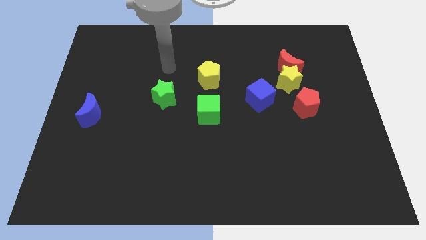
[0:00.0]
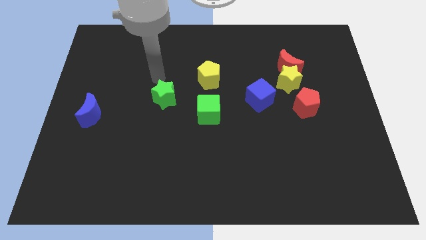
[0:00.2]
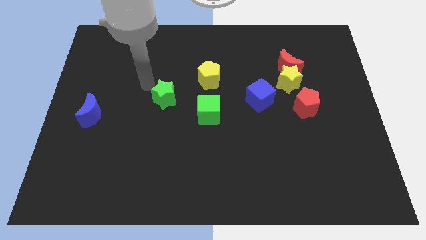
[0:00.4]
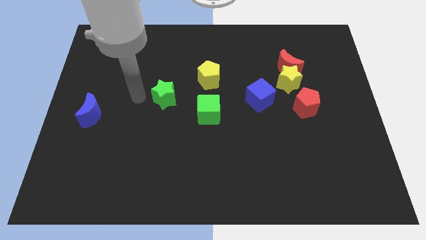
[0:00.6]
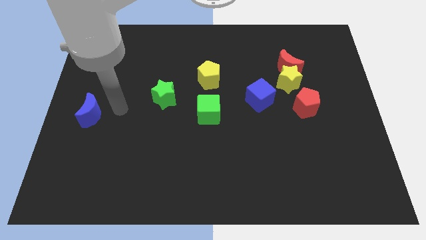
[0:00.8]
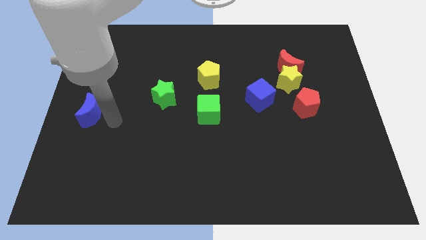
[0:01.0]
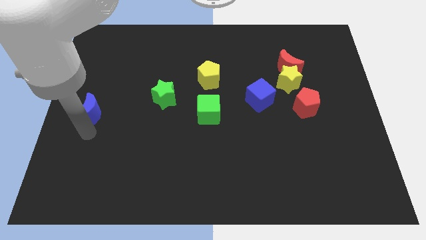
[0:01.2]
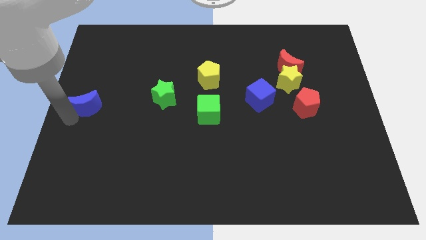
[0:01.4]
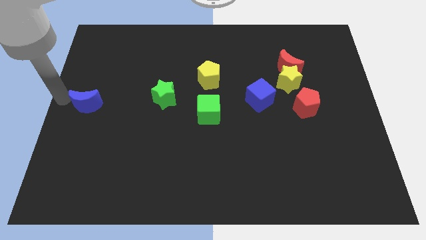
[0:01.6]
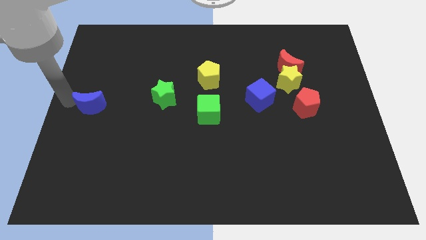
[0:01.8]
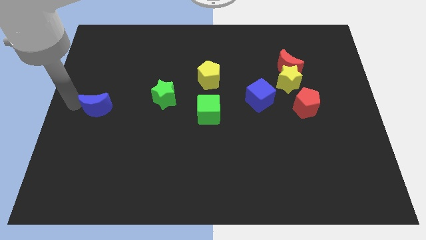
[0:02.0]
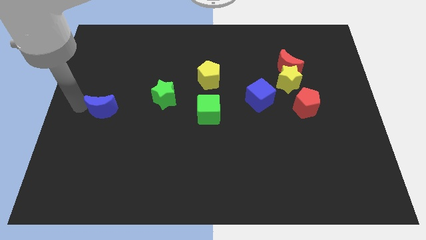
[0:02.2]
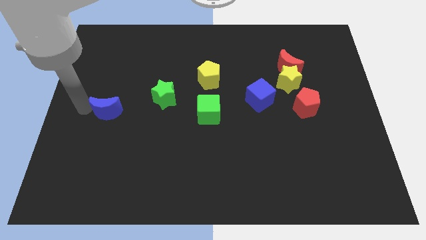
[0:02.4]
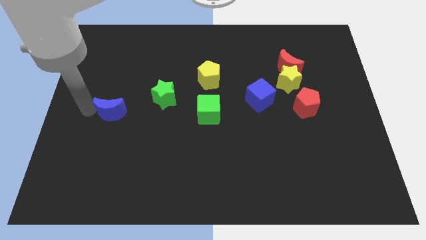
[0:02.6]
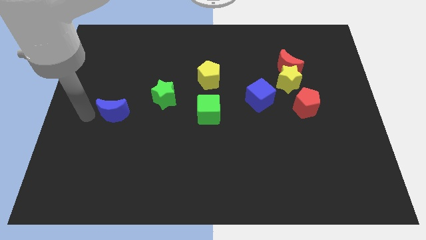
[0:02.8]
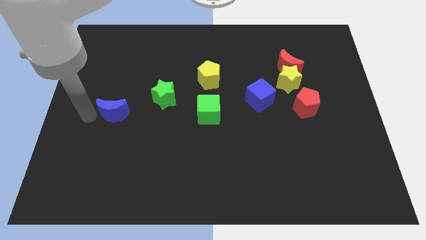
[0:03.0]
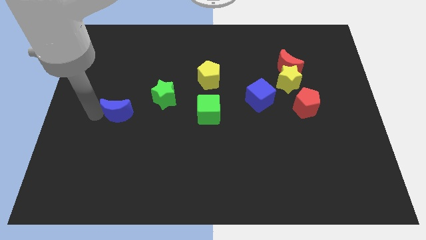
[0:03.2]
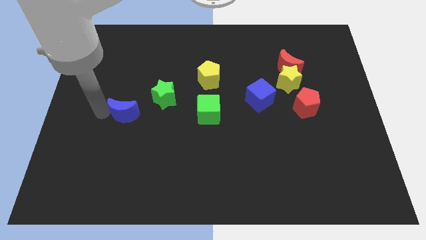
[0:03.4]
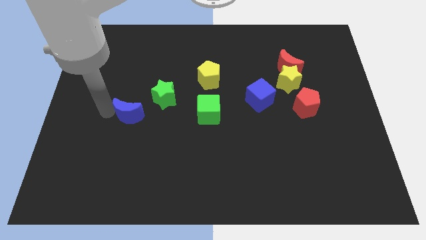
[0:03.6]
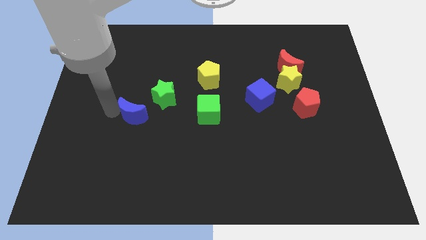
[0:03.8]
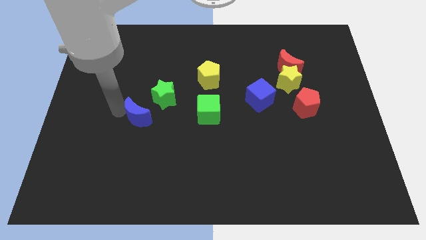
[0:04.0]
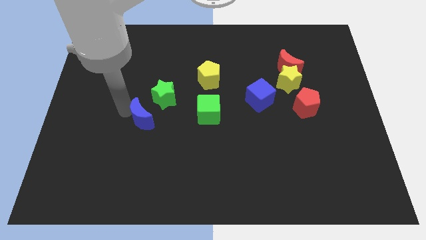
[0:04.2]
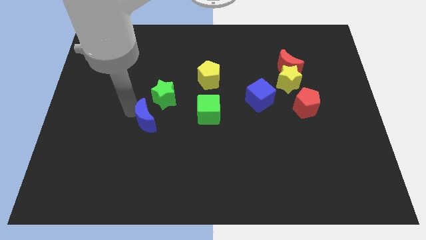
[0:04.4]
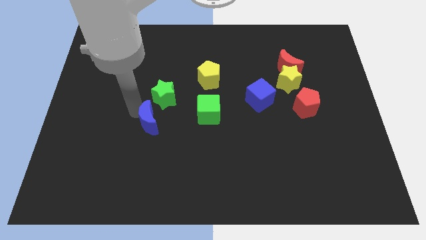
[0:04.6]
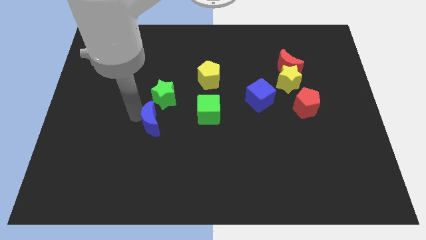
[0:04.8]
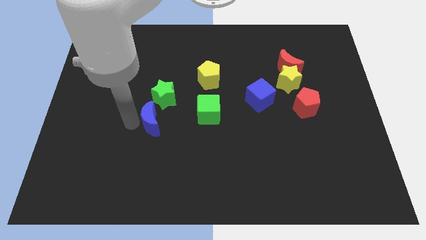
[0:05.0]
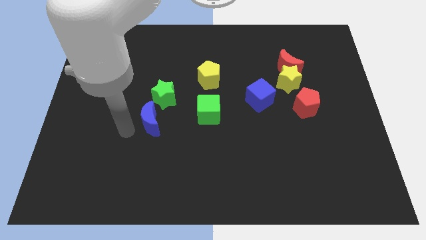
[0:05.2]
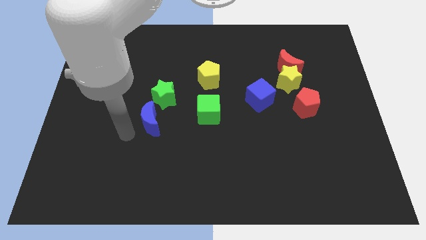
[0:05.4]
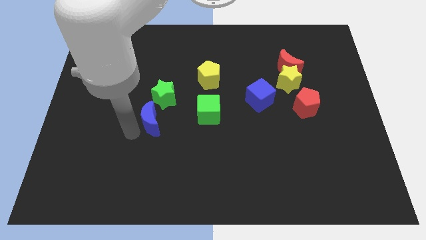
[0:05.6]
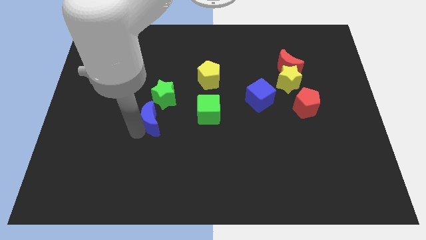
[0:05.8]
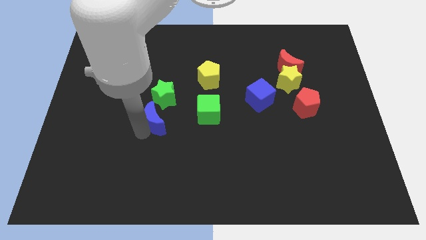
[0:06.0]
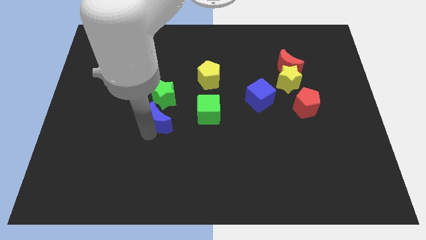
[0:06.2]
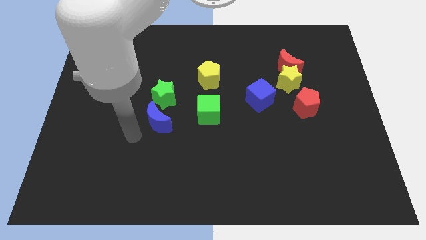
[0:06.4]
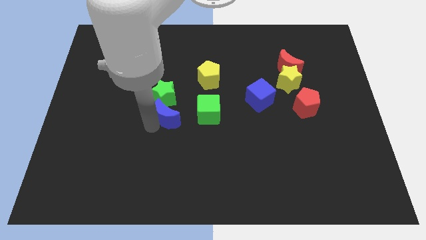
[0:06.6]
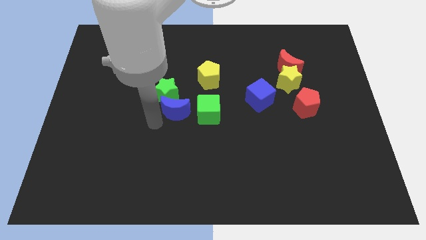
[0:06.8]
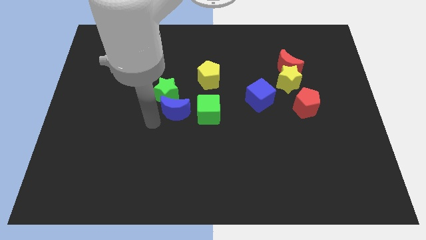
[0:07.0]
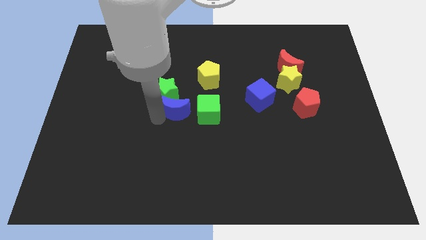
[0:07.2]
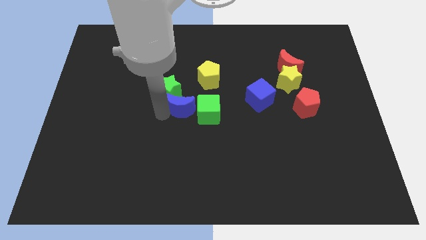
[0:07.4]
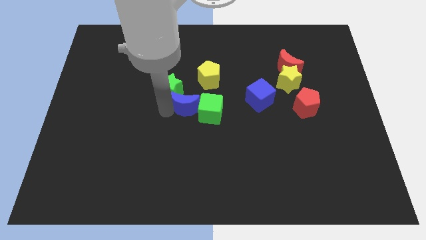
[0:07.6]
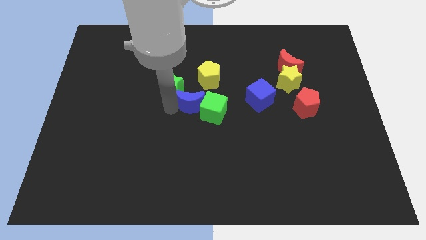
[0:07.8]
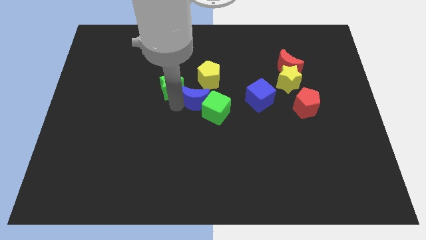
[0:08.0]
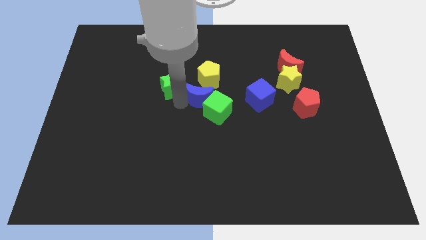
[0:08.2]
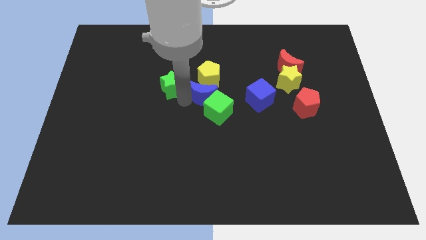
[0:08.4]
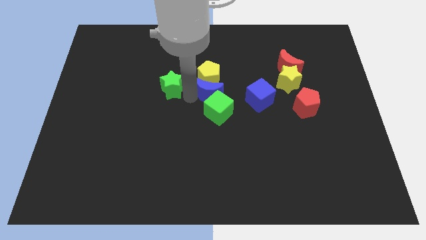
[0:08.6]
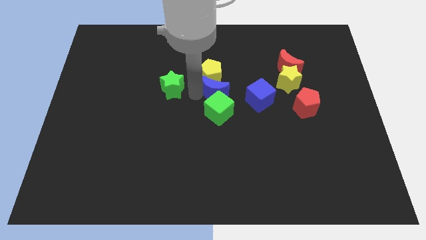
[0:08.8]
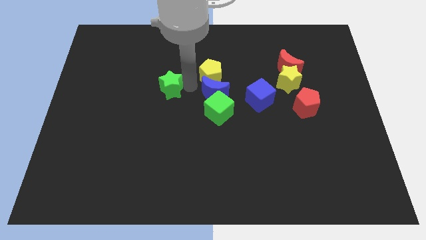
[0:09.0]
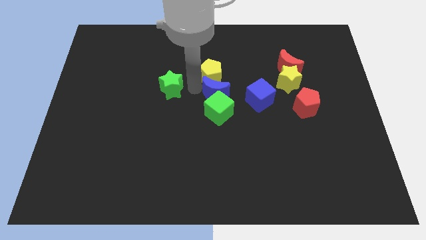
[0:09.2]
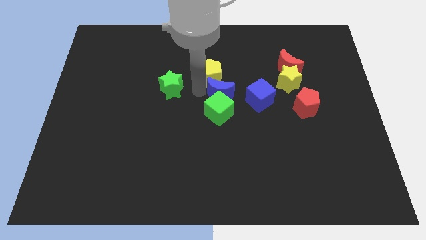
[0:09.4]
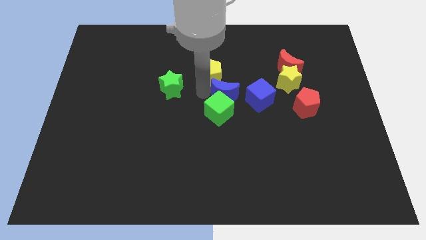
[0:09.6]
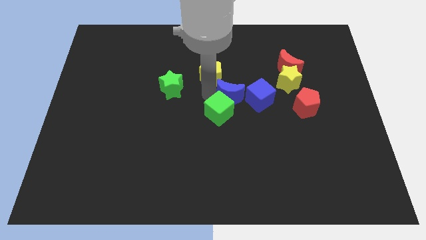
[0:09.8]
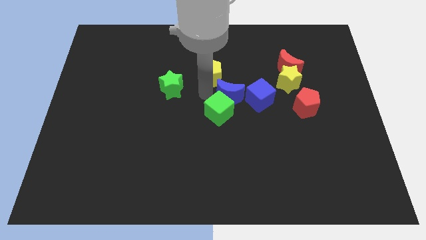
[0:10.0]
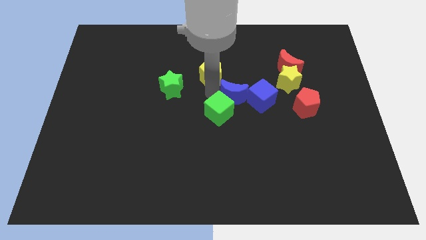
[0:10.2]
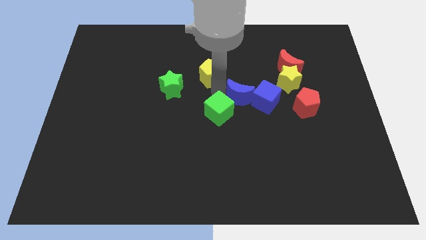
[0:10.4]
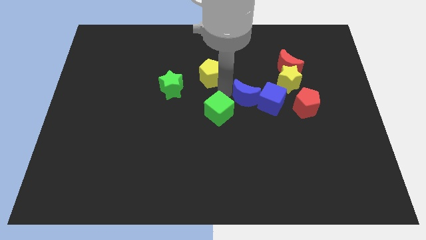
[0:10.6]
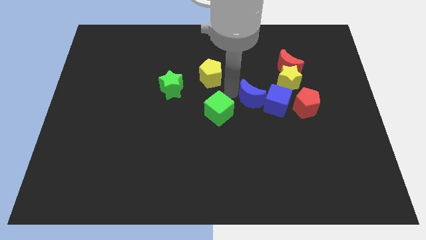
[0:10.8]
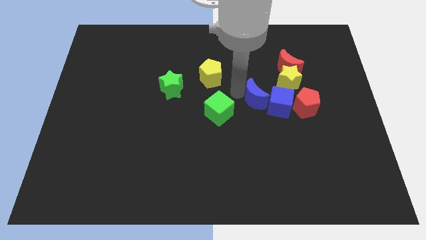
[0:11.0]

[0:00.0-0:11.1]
put the blue moon next to the blue cube

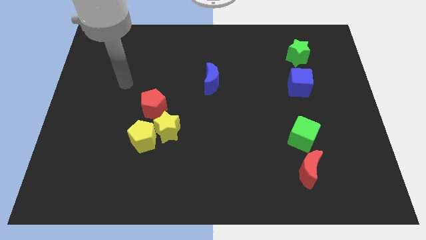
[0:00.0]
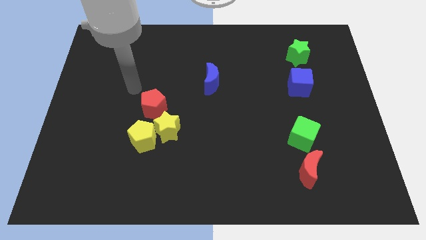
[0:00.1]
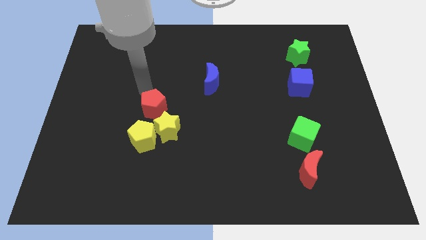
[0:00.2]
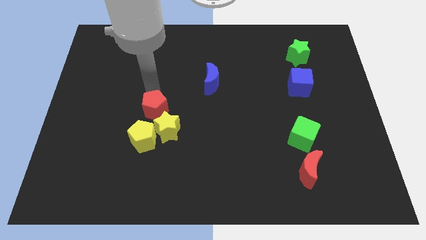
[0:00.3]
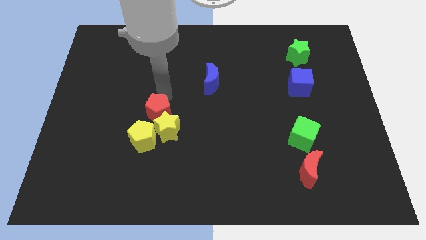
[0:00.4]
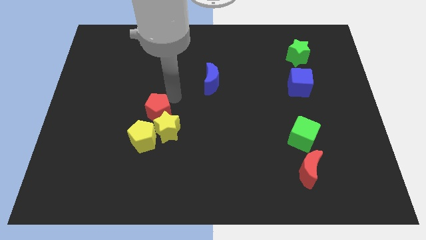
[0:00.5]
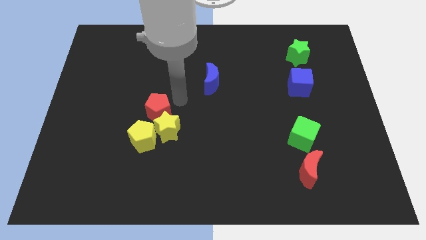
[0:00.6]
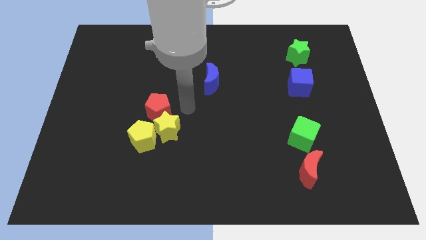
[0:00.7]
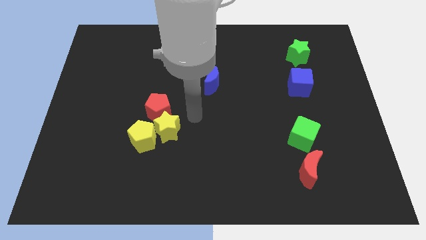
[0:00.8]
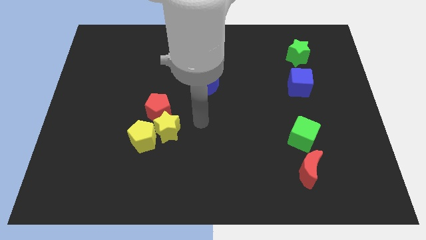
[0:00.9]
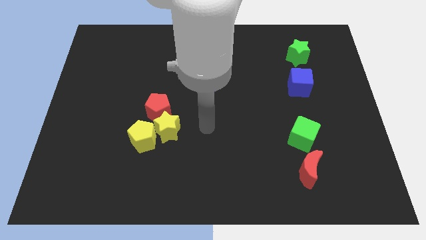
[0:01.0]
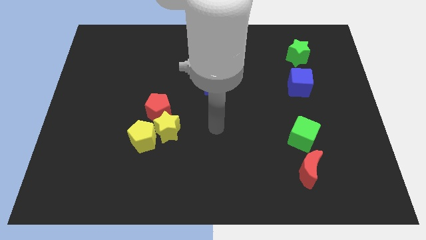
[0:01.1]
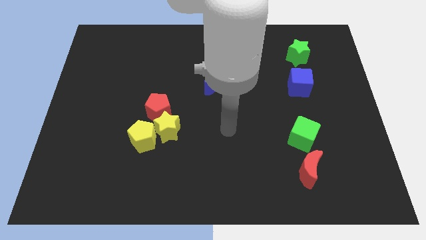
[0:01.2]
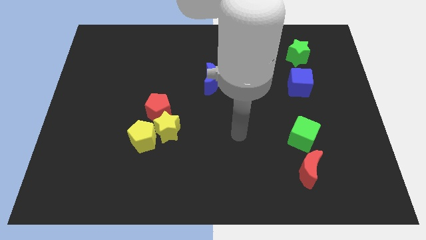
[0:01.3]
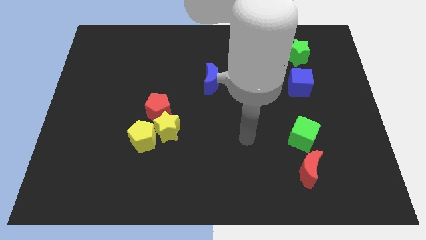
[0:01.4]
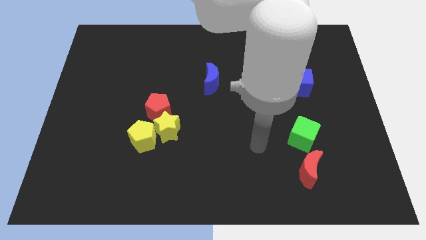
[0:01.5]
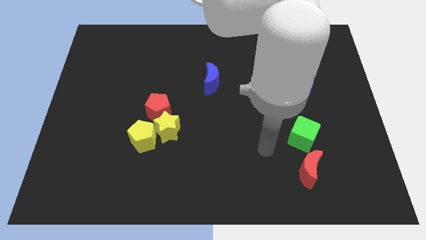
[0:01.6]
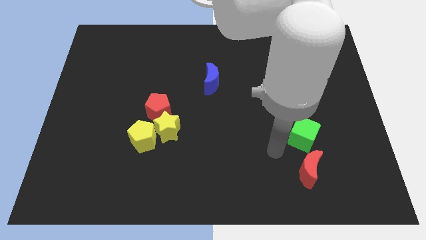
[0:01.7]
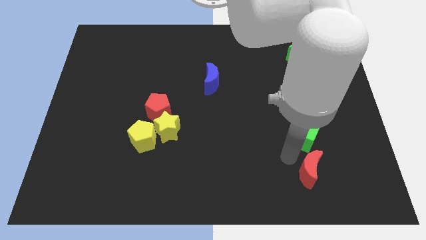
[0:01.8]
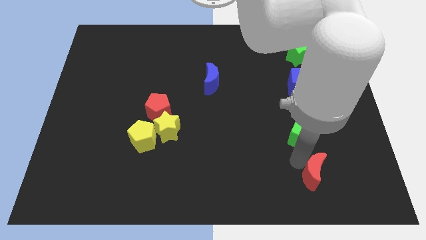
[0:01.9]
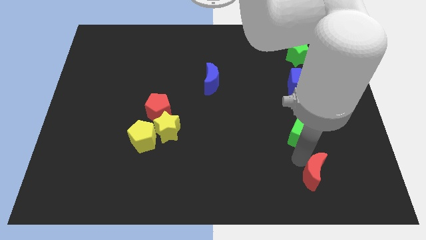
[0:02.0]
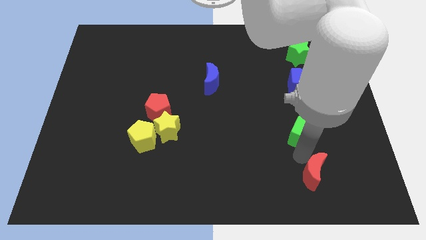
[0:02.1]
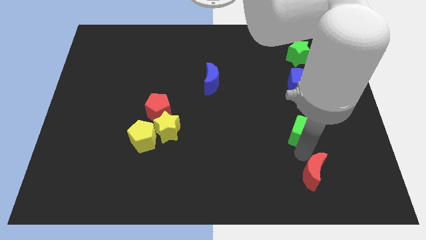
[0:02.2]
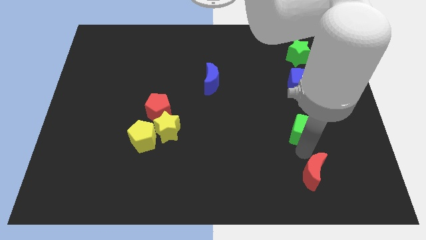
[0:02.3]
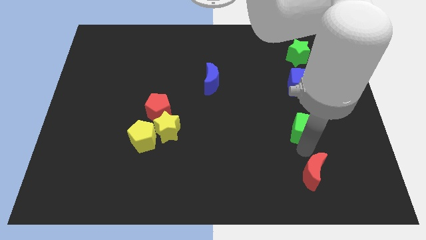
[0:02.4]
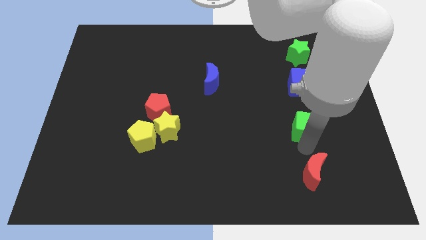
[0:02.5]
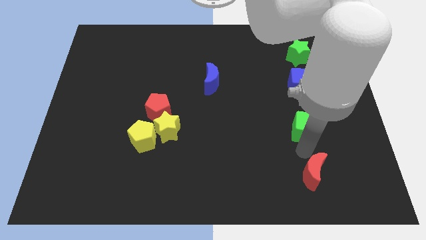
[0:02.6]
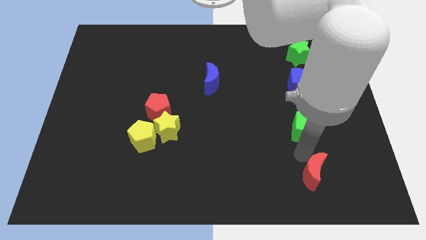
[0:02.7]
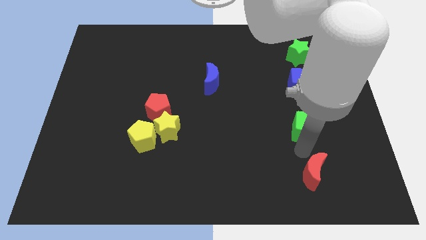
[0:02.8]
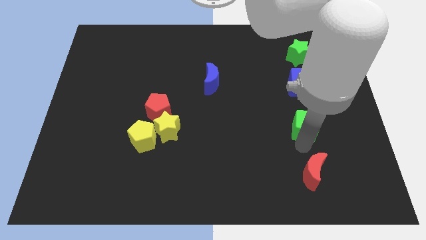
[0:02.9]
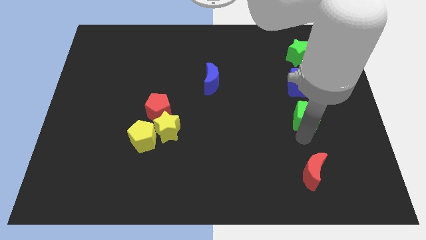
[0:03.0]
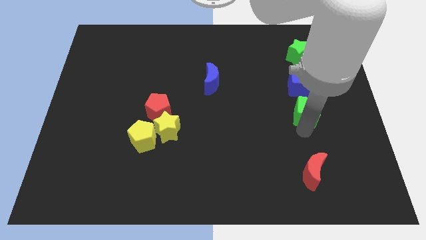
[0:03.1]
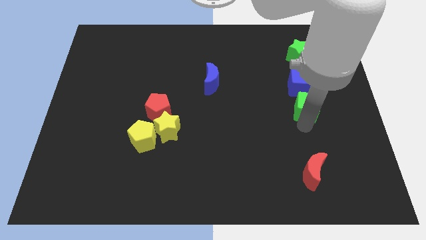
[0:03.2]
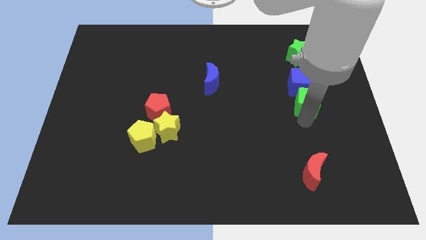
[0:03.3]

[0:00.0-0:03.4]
push the green cube to the blue cube
